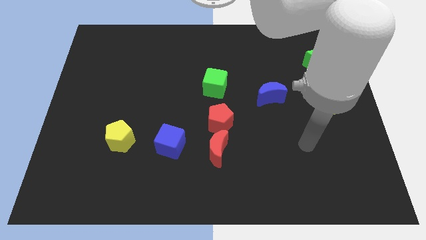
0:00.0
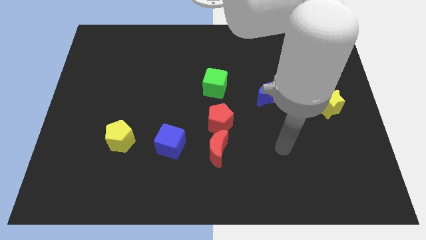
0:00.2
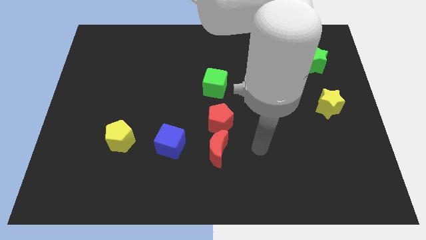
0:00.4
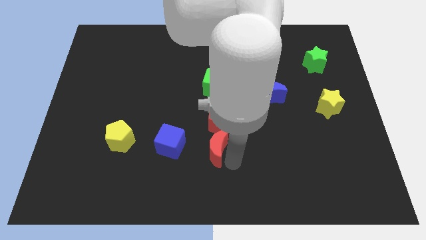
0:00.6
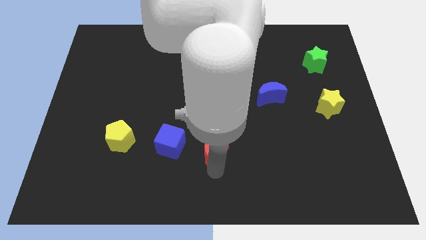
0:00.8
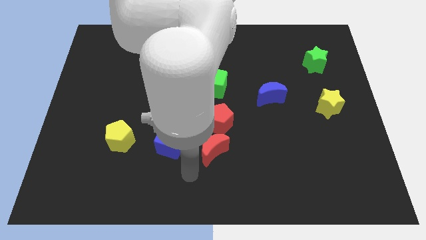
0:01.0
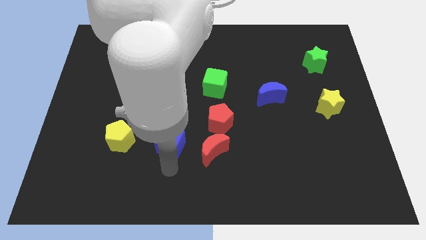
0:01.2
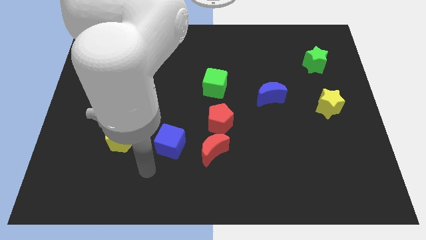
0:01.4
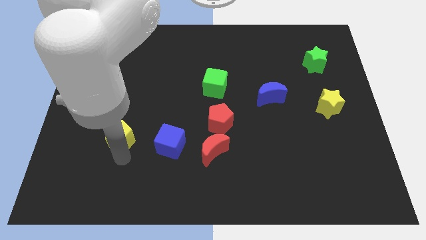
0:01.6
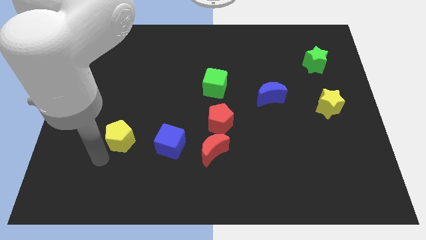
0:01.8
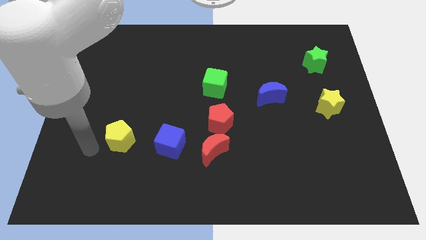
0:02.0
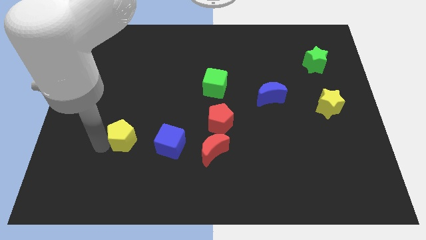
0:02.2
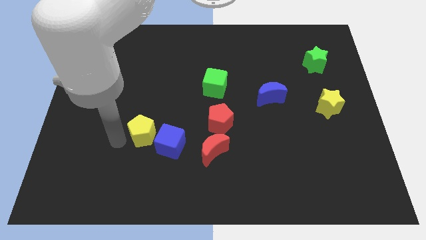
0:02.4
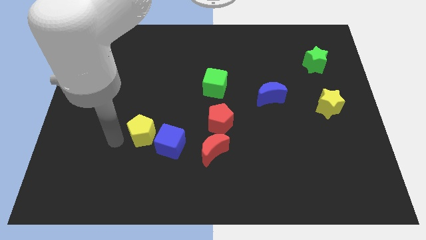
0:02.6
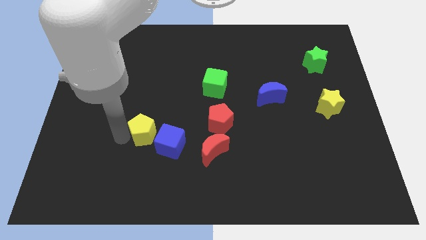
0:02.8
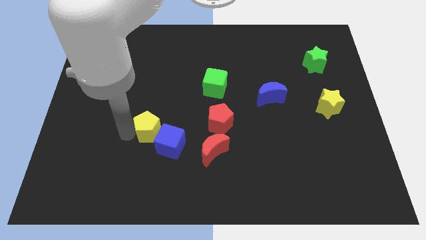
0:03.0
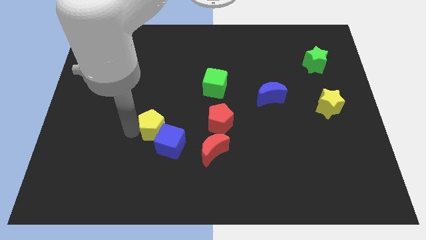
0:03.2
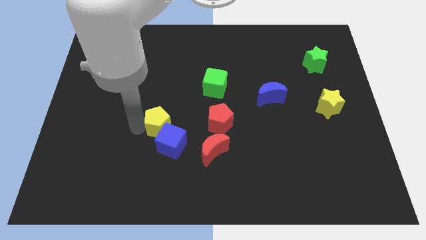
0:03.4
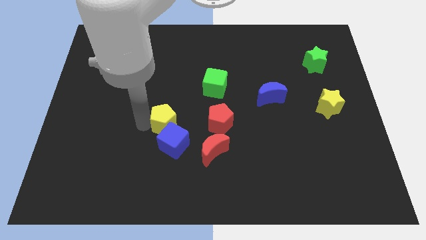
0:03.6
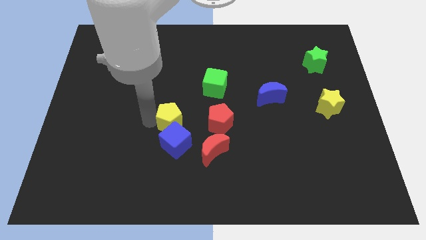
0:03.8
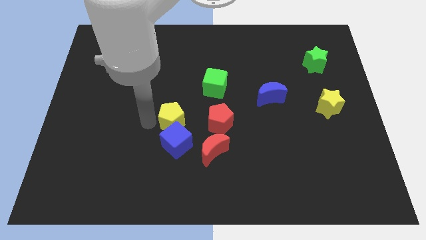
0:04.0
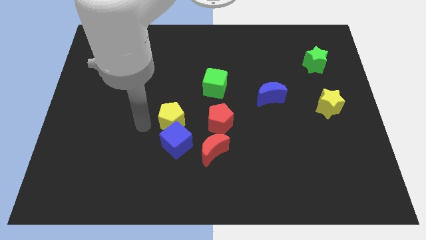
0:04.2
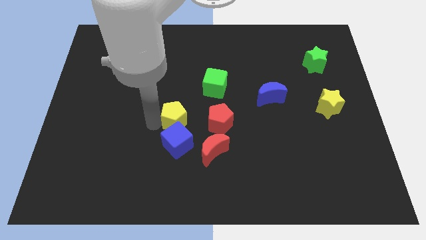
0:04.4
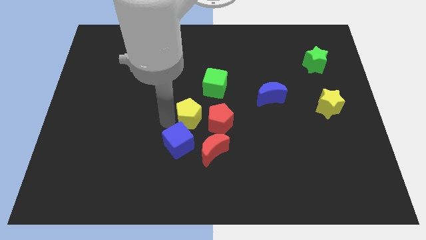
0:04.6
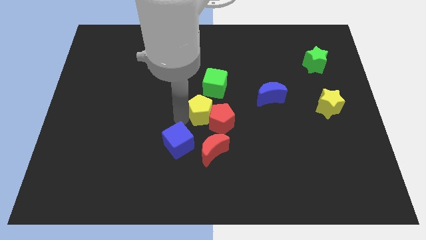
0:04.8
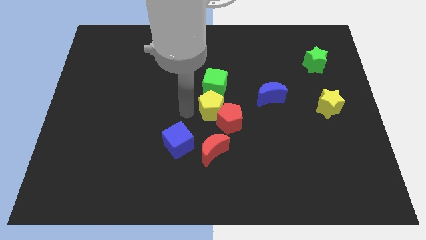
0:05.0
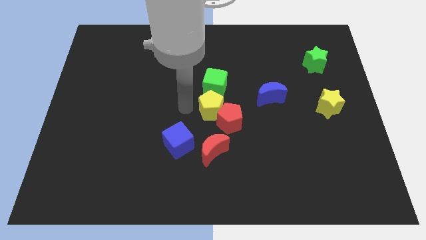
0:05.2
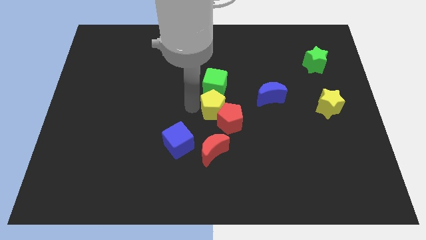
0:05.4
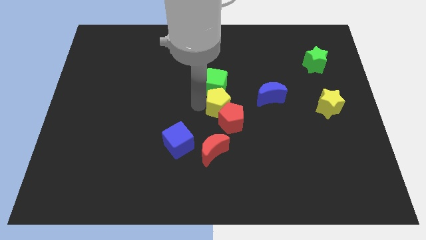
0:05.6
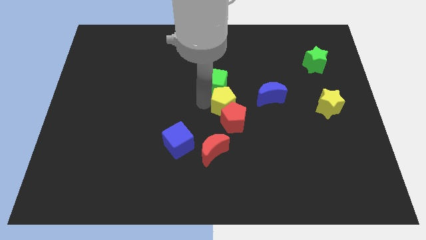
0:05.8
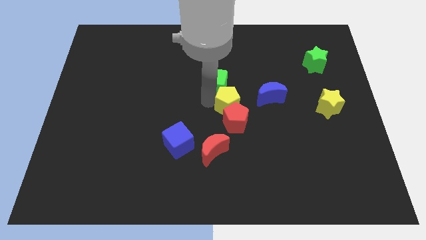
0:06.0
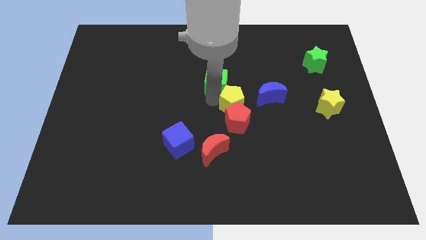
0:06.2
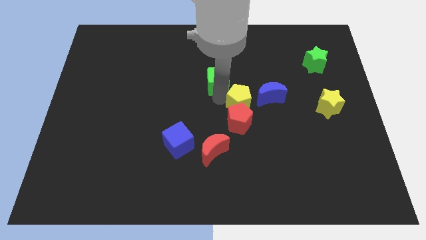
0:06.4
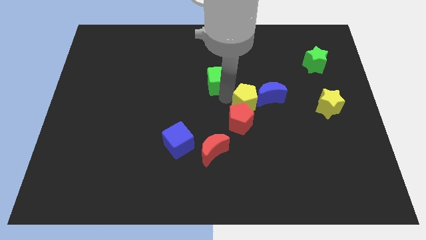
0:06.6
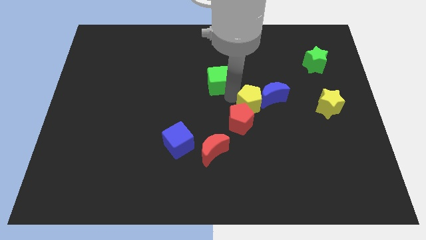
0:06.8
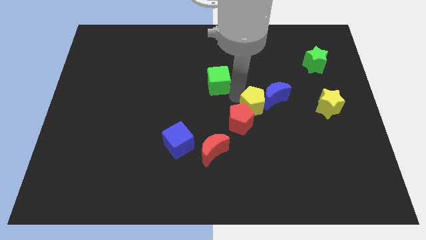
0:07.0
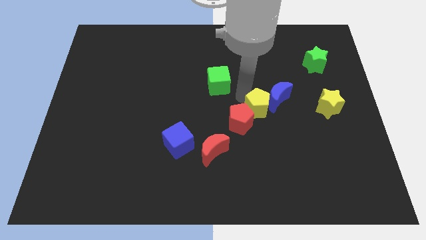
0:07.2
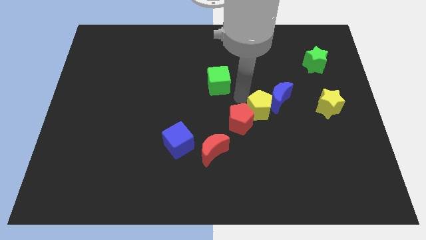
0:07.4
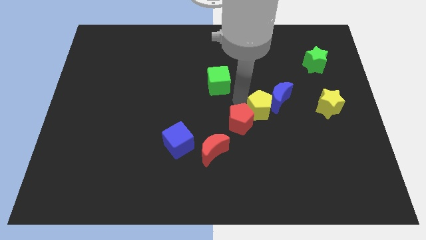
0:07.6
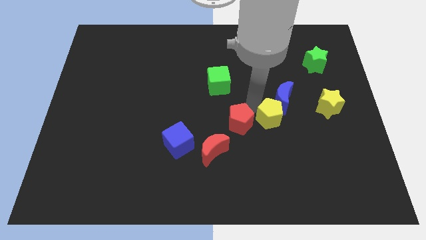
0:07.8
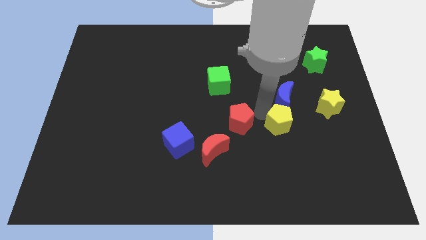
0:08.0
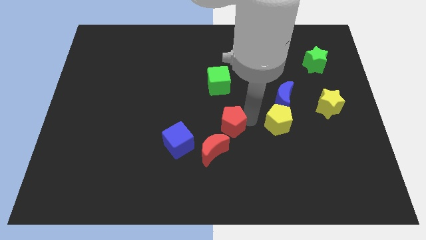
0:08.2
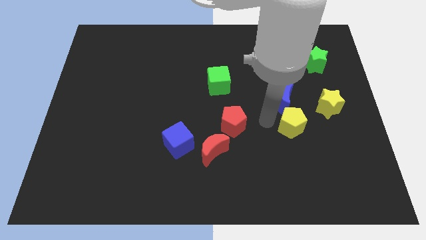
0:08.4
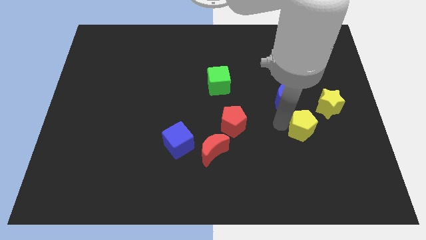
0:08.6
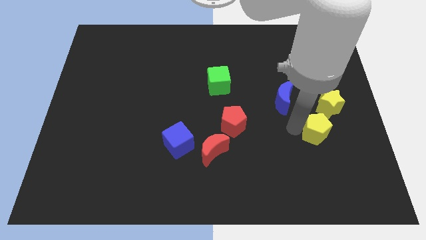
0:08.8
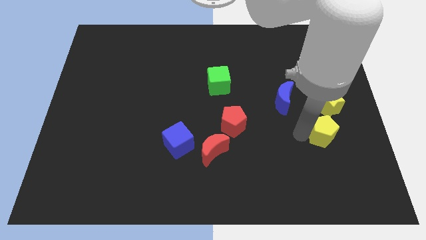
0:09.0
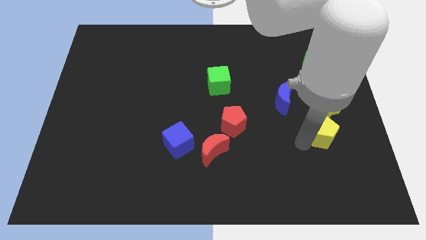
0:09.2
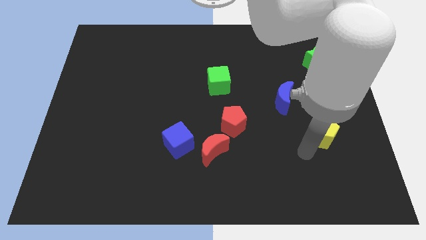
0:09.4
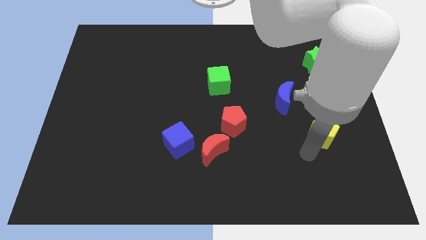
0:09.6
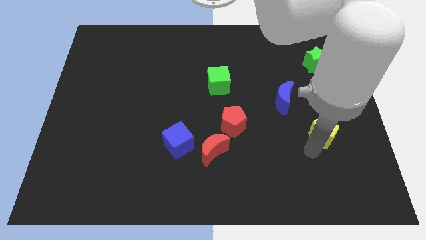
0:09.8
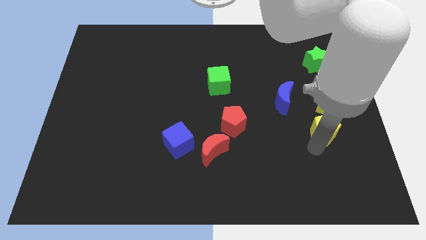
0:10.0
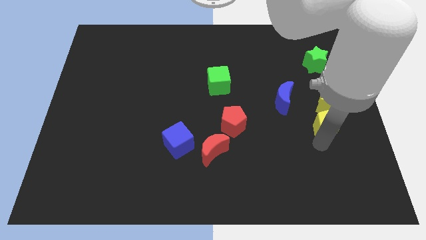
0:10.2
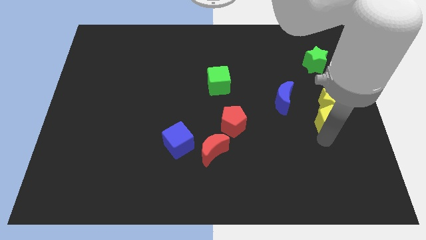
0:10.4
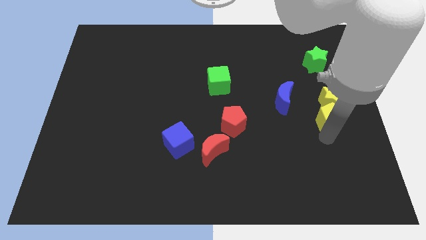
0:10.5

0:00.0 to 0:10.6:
slide the yellow pentagon to the right side

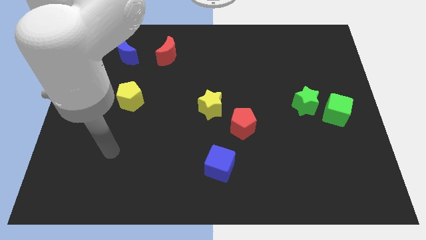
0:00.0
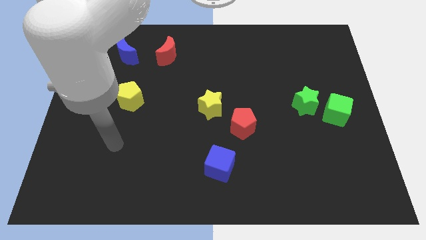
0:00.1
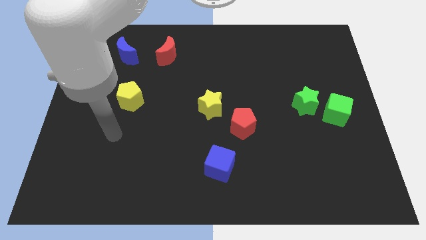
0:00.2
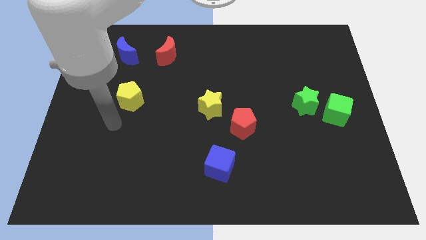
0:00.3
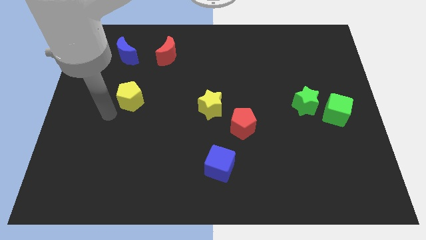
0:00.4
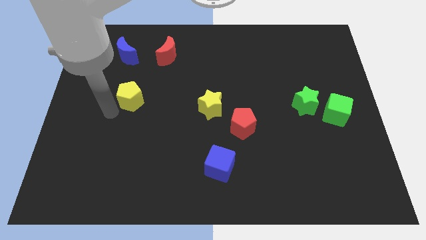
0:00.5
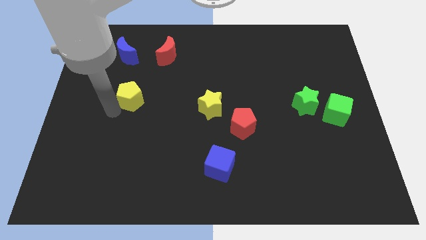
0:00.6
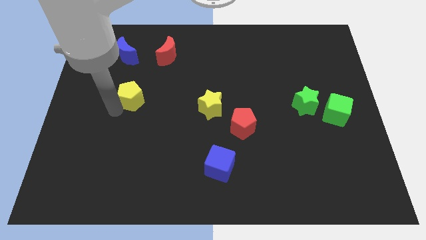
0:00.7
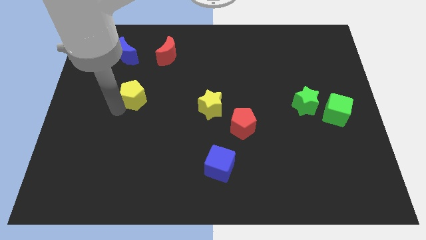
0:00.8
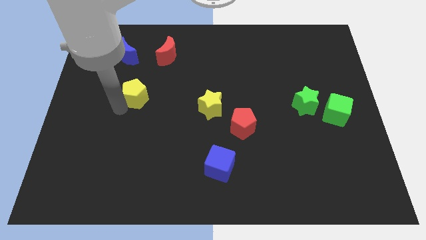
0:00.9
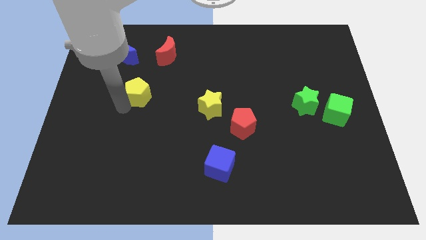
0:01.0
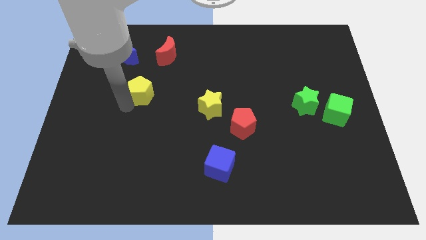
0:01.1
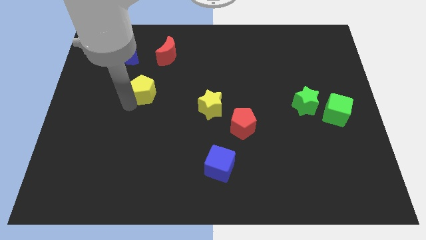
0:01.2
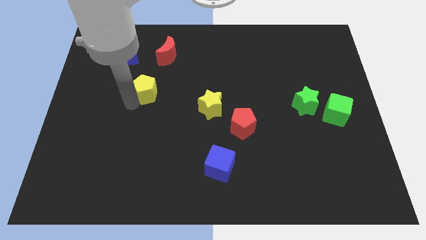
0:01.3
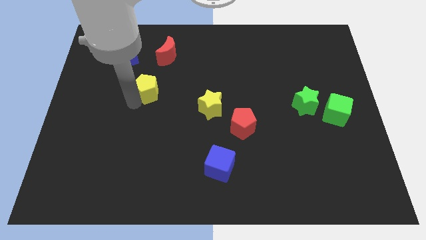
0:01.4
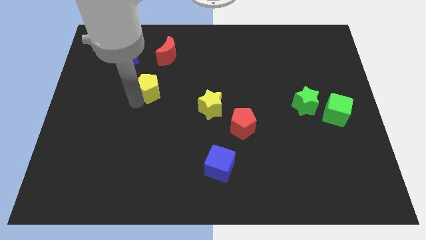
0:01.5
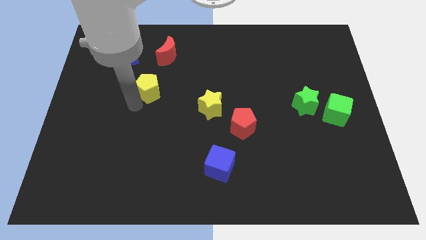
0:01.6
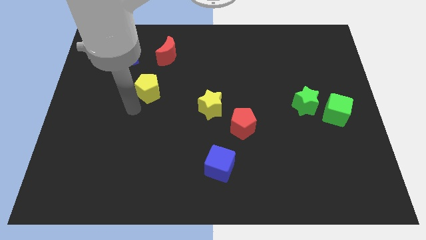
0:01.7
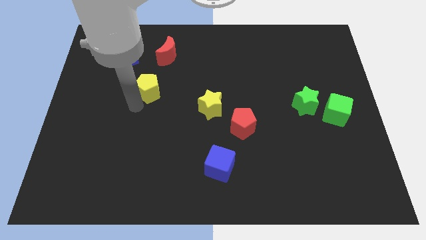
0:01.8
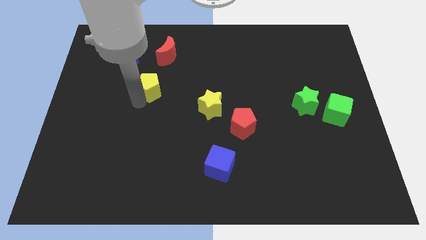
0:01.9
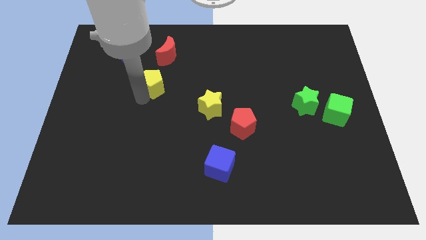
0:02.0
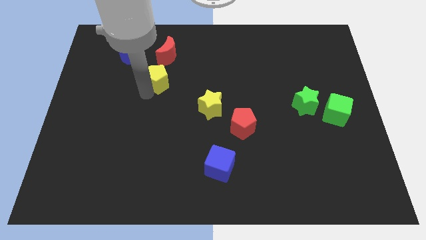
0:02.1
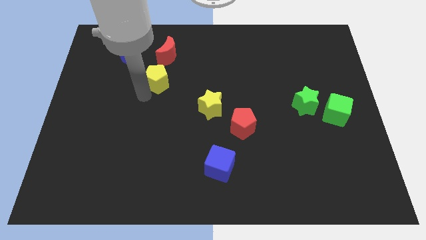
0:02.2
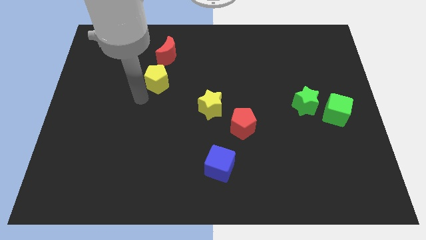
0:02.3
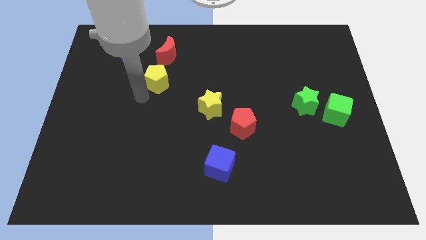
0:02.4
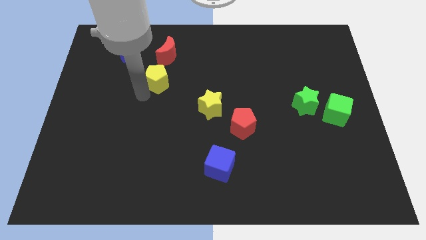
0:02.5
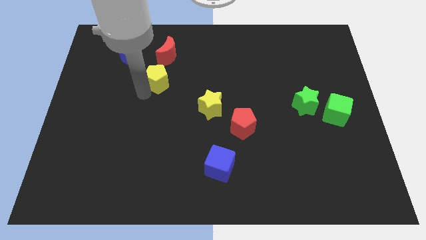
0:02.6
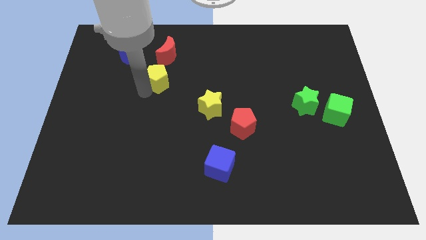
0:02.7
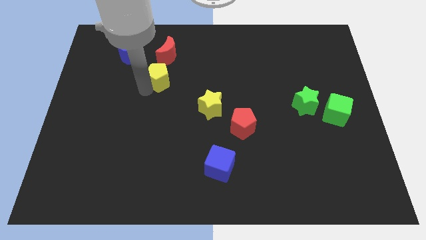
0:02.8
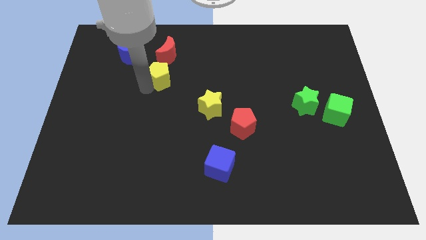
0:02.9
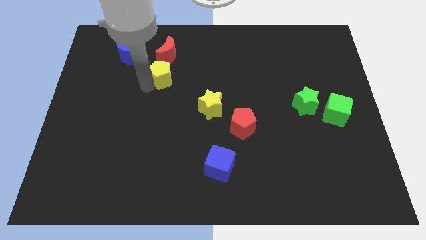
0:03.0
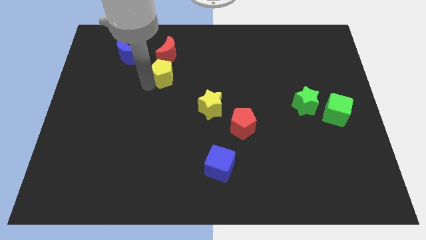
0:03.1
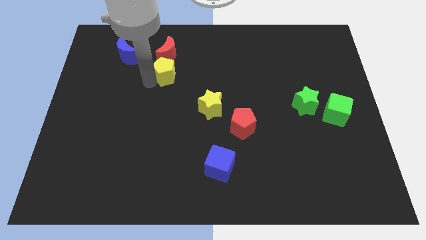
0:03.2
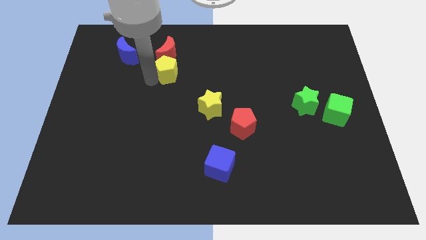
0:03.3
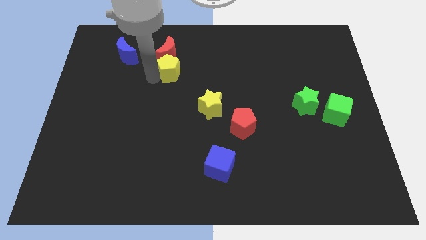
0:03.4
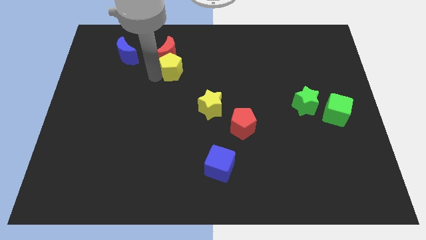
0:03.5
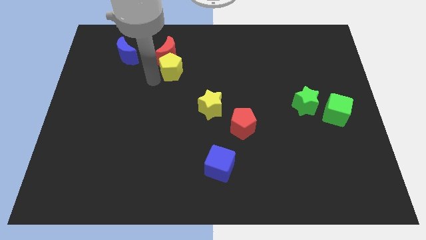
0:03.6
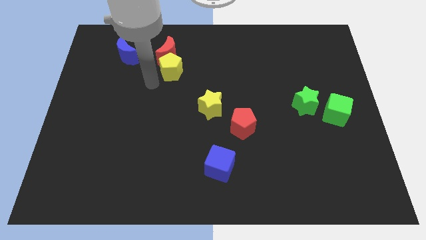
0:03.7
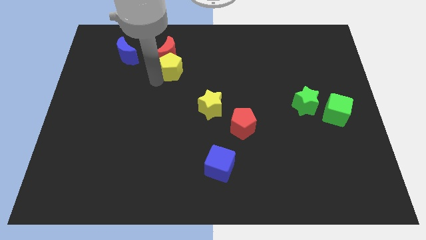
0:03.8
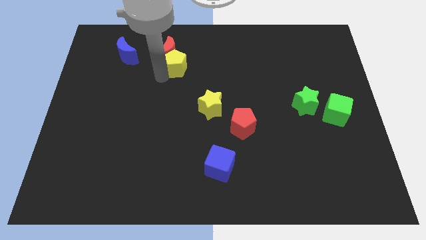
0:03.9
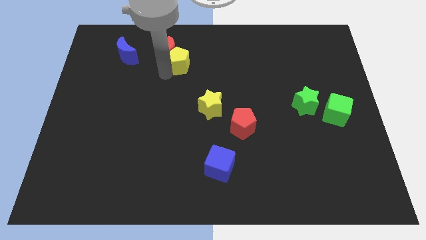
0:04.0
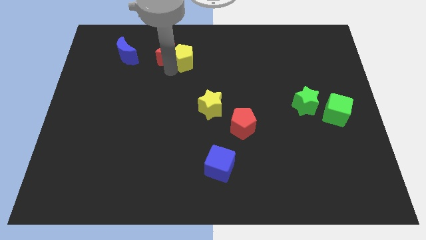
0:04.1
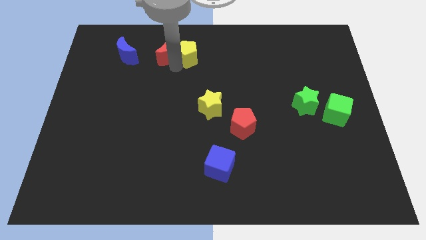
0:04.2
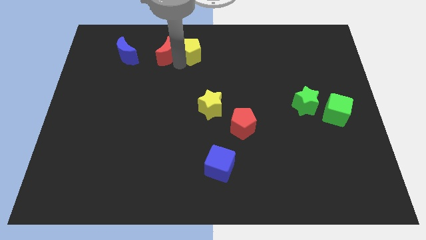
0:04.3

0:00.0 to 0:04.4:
put the yellow pentagon to the towards your base
